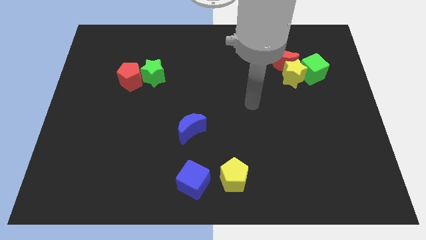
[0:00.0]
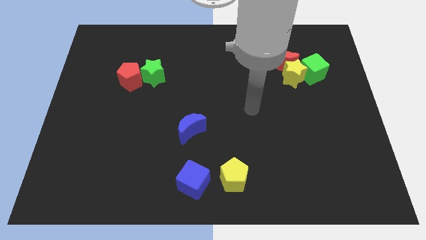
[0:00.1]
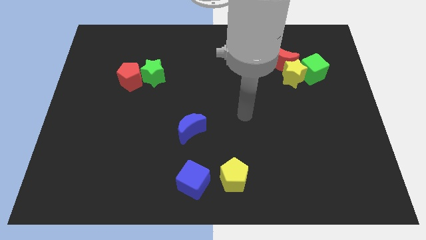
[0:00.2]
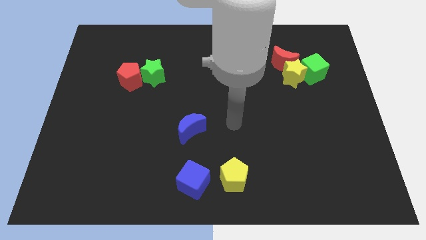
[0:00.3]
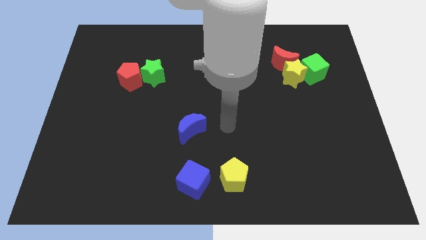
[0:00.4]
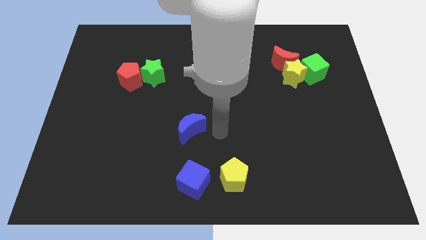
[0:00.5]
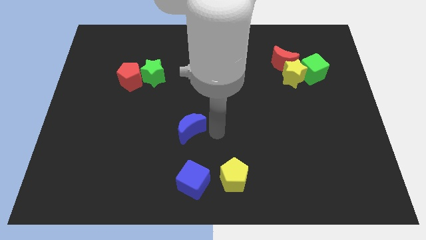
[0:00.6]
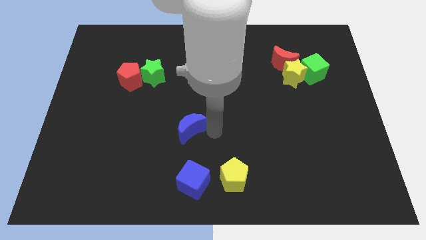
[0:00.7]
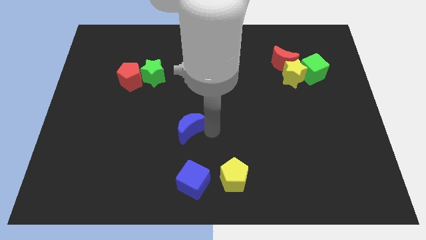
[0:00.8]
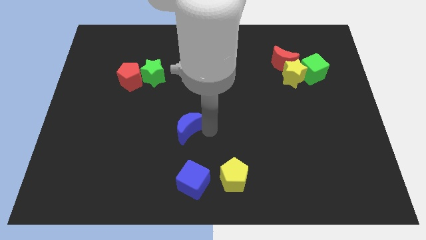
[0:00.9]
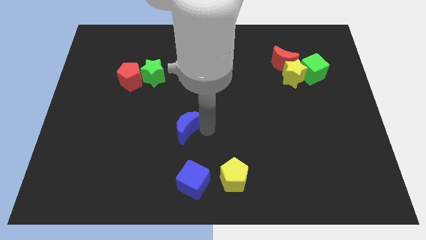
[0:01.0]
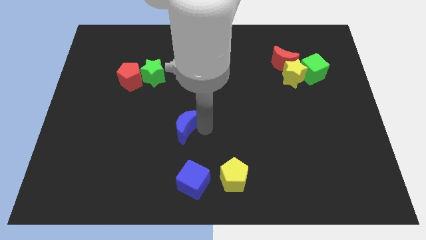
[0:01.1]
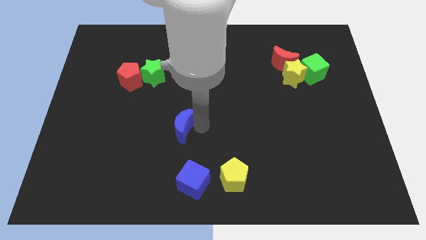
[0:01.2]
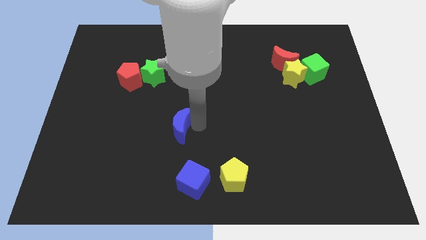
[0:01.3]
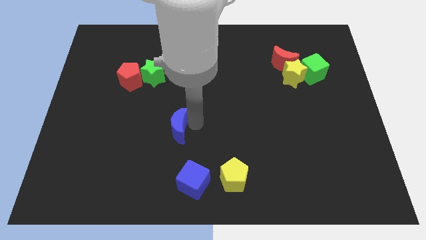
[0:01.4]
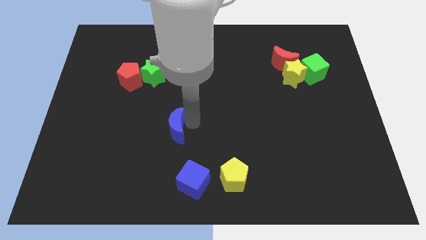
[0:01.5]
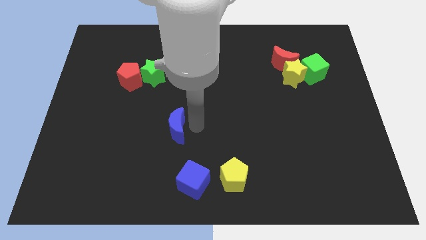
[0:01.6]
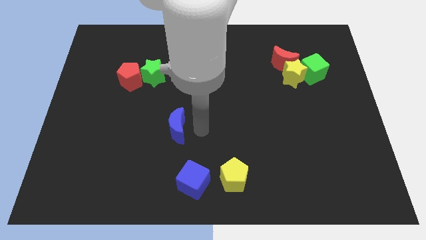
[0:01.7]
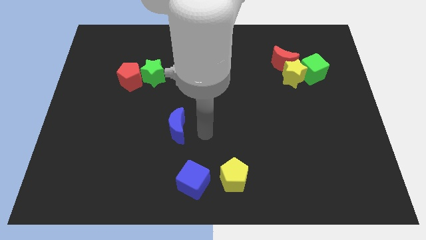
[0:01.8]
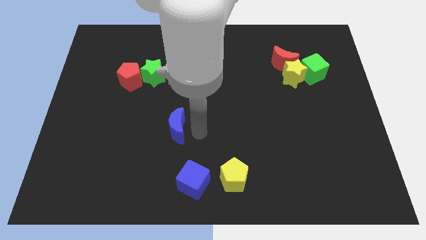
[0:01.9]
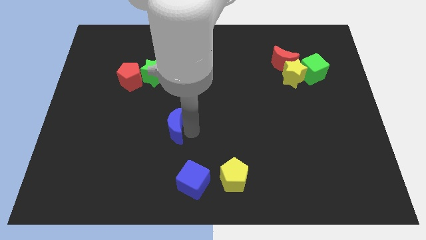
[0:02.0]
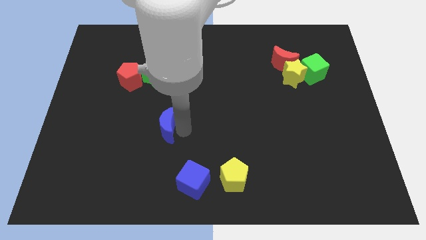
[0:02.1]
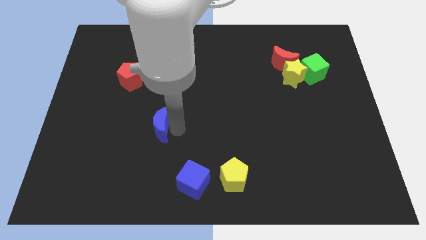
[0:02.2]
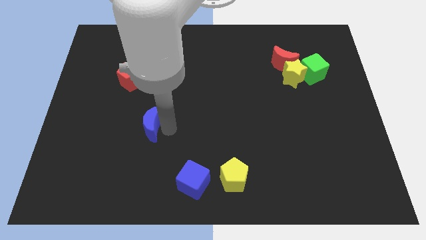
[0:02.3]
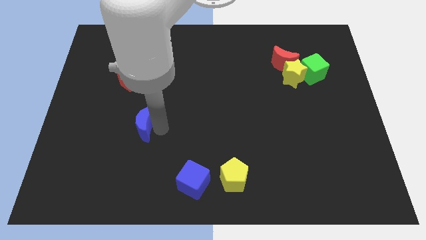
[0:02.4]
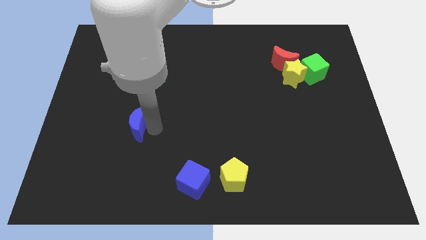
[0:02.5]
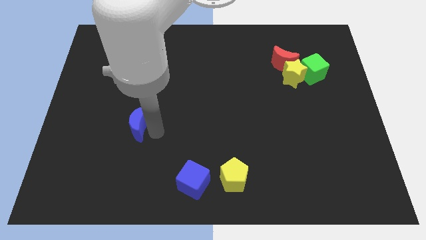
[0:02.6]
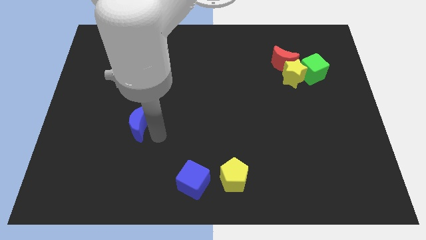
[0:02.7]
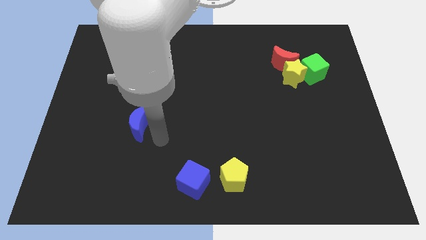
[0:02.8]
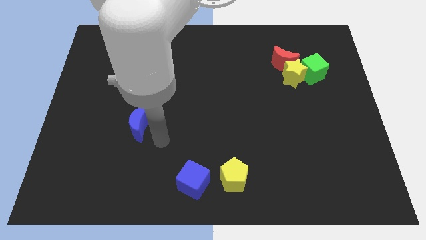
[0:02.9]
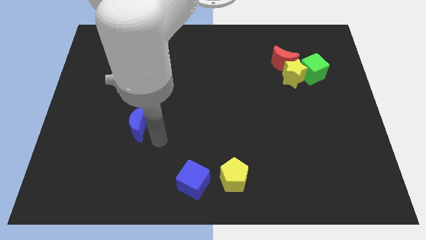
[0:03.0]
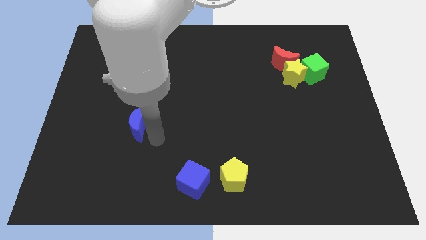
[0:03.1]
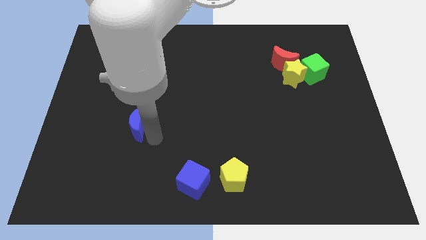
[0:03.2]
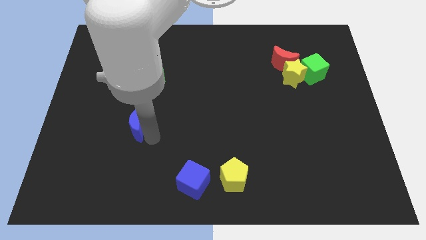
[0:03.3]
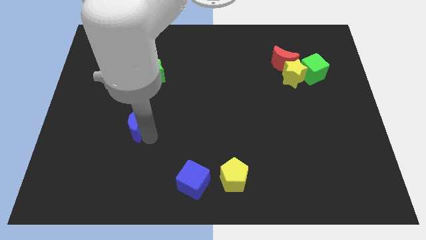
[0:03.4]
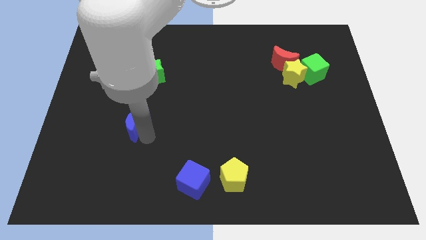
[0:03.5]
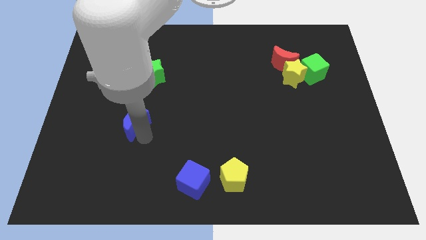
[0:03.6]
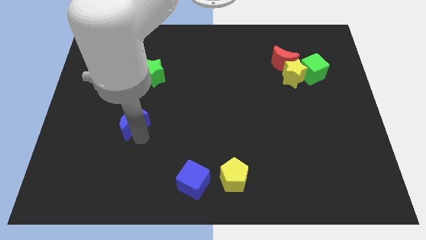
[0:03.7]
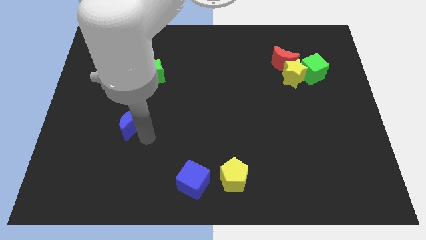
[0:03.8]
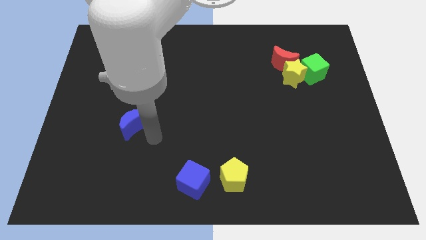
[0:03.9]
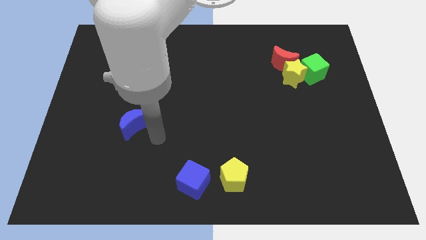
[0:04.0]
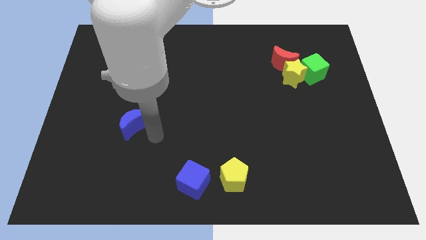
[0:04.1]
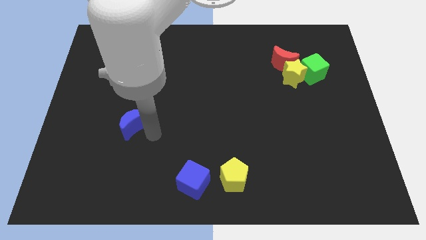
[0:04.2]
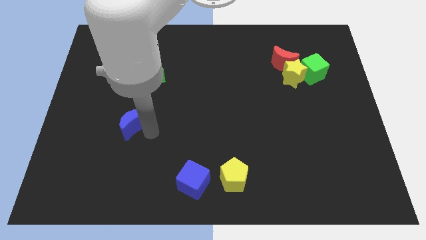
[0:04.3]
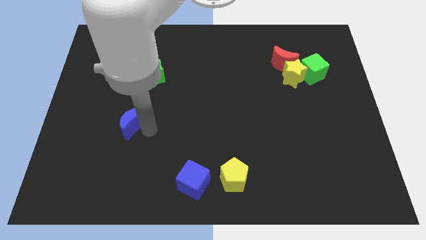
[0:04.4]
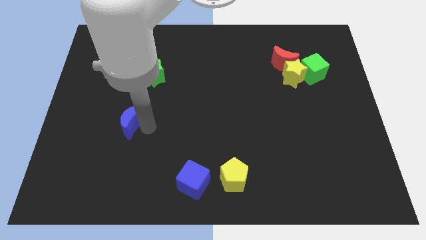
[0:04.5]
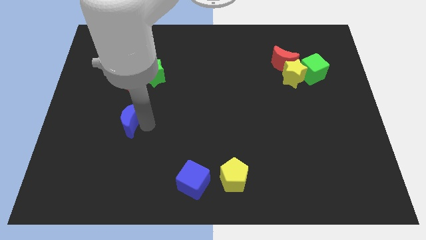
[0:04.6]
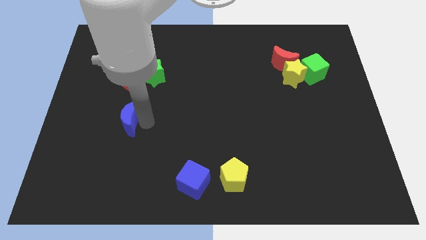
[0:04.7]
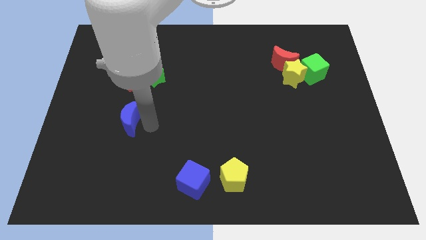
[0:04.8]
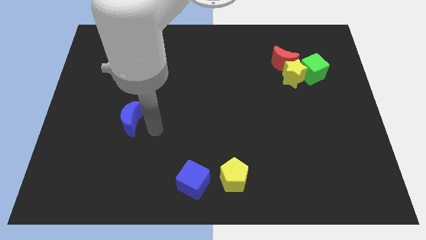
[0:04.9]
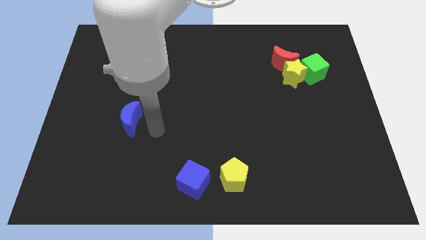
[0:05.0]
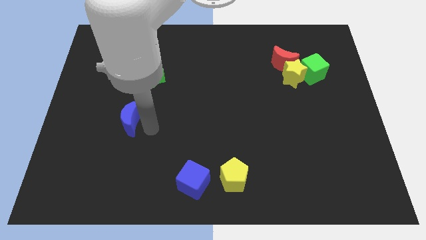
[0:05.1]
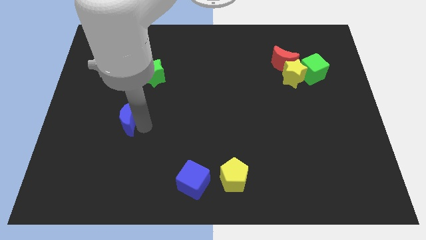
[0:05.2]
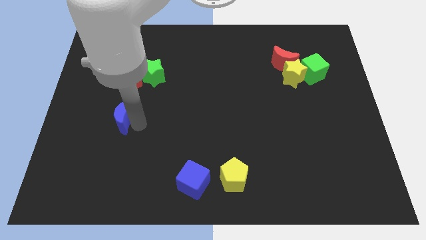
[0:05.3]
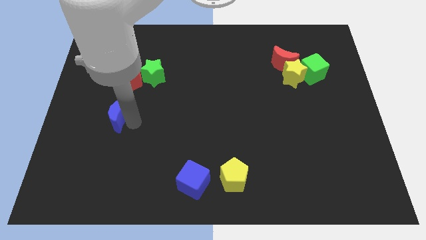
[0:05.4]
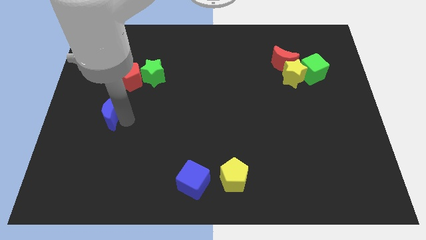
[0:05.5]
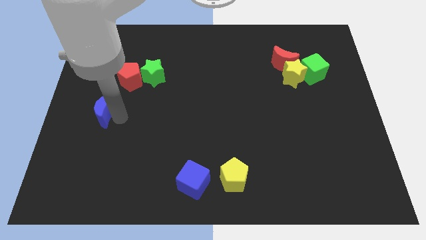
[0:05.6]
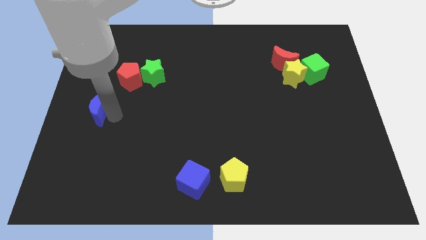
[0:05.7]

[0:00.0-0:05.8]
put the blue moon to the center left

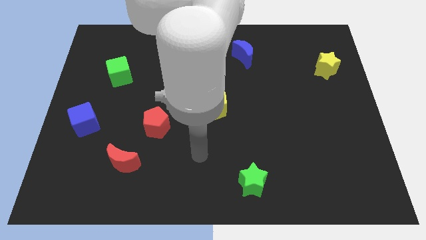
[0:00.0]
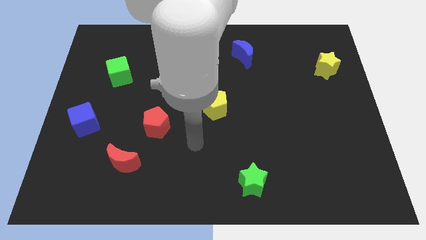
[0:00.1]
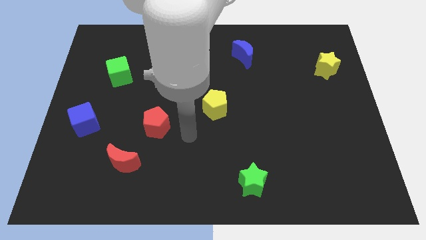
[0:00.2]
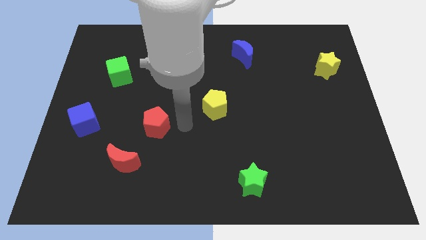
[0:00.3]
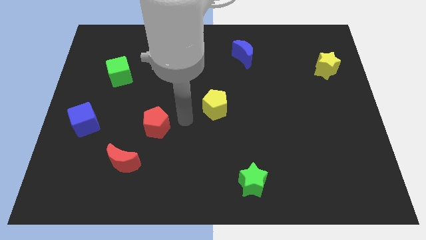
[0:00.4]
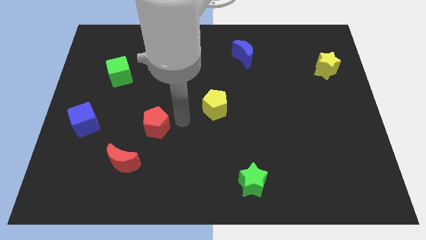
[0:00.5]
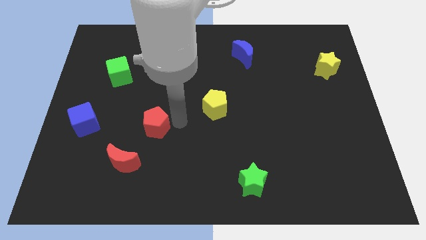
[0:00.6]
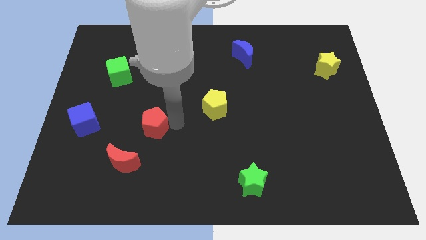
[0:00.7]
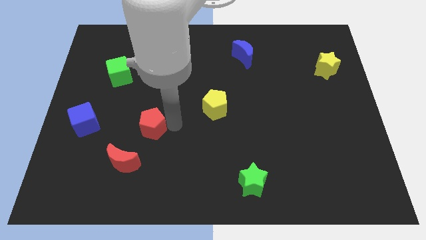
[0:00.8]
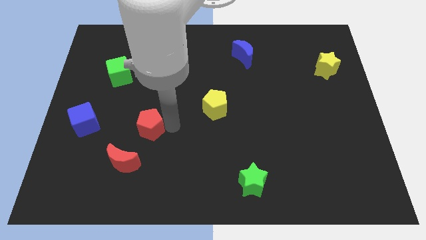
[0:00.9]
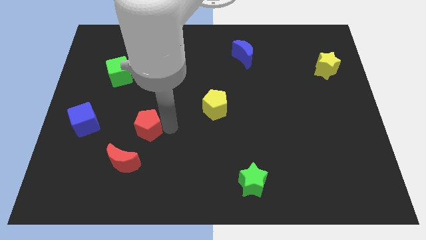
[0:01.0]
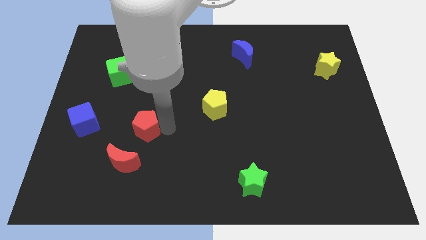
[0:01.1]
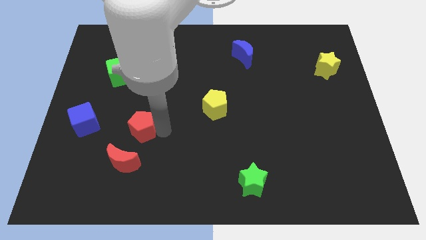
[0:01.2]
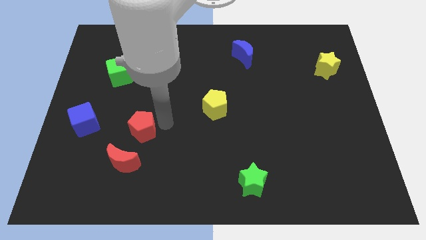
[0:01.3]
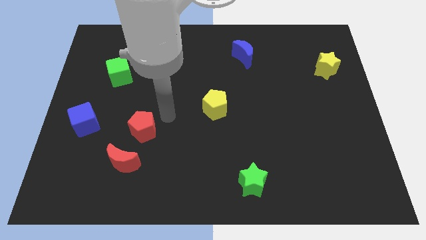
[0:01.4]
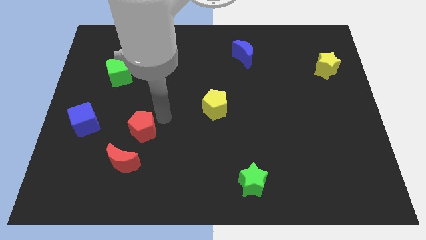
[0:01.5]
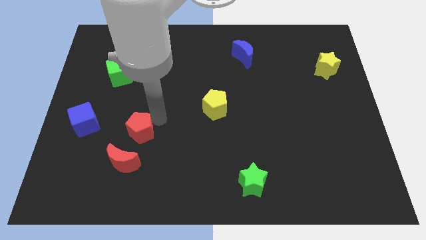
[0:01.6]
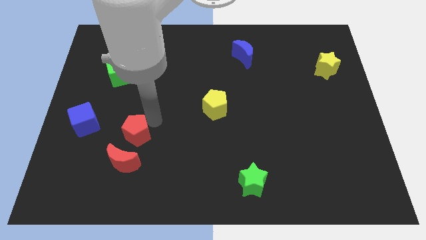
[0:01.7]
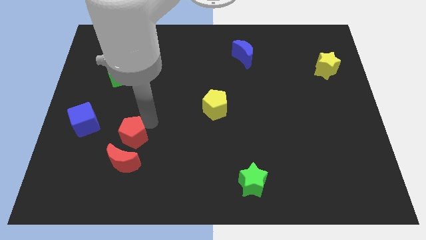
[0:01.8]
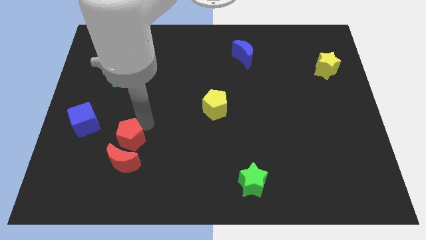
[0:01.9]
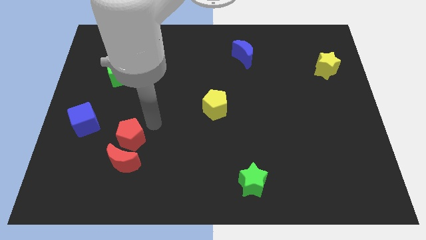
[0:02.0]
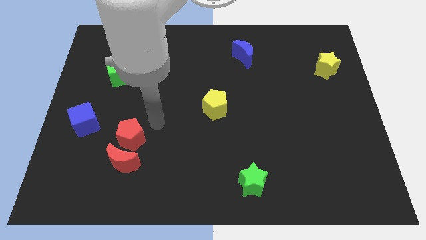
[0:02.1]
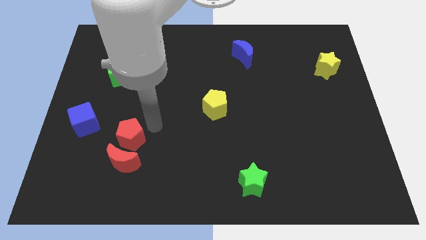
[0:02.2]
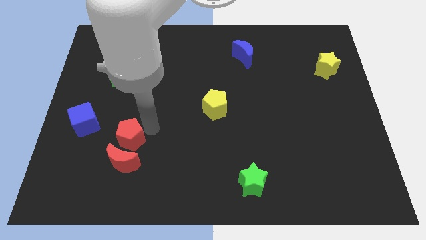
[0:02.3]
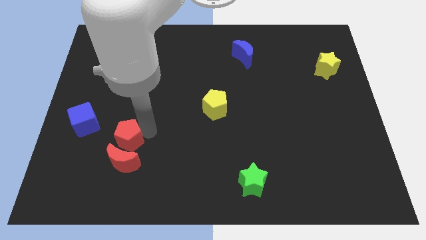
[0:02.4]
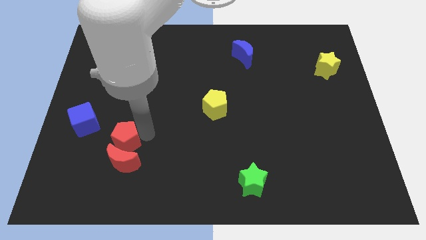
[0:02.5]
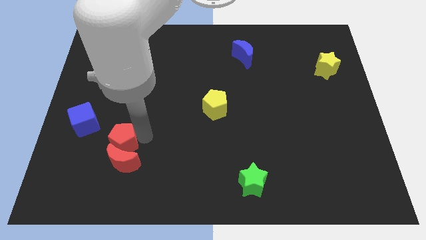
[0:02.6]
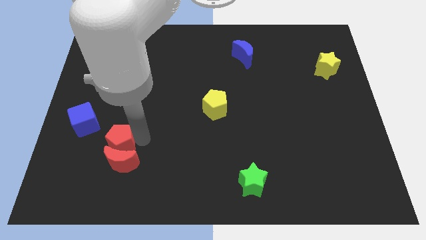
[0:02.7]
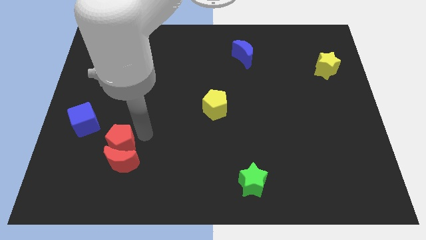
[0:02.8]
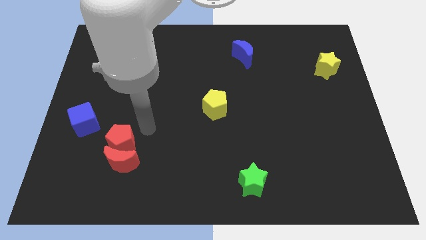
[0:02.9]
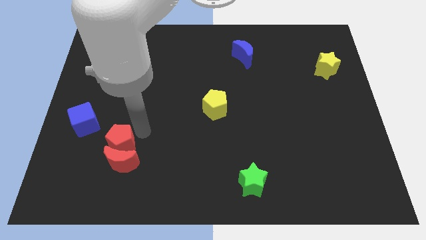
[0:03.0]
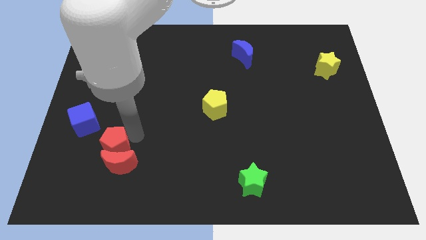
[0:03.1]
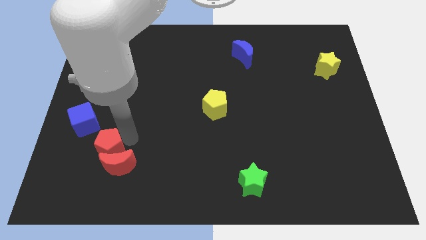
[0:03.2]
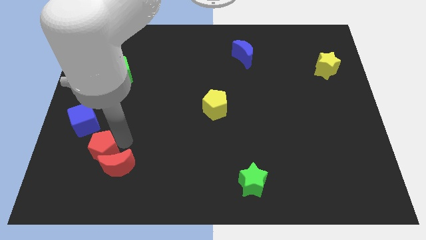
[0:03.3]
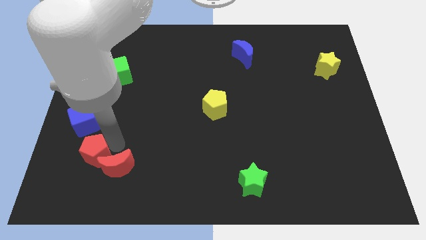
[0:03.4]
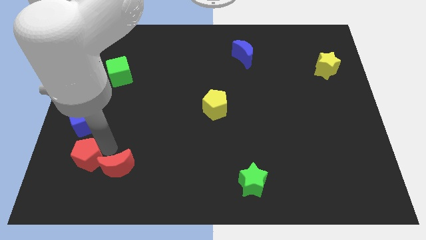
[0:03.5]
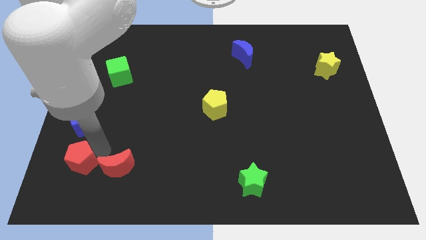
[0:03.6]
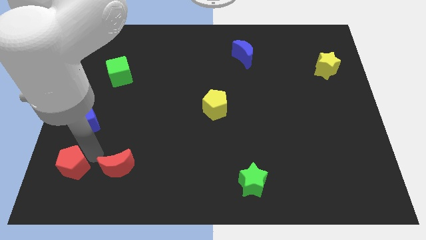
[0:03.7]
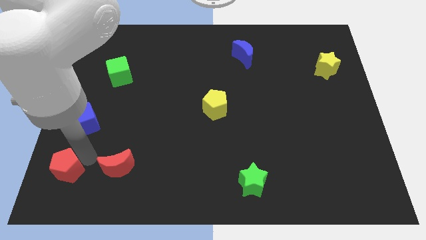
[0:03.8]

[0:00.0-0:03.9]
push the red pentagon to the bottom left
